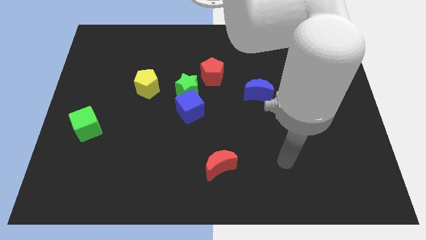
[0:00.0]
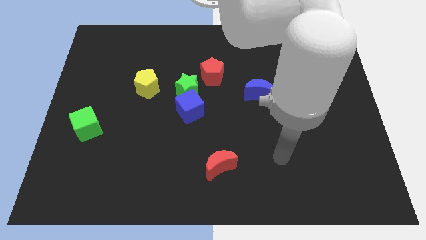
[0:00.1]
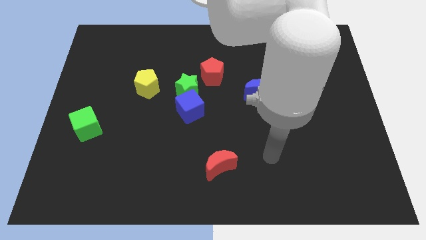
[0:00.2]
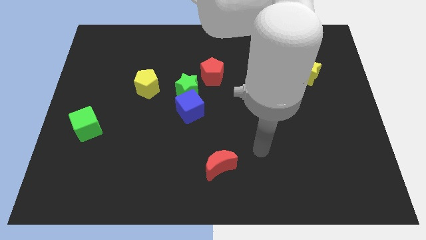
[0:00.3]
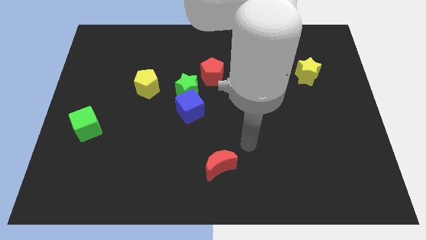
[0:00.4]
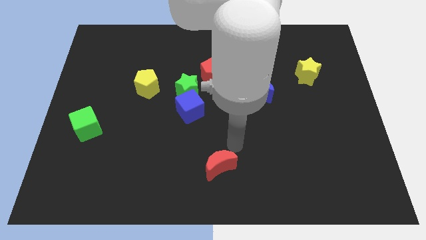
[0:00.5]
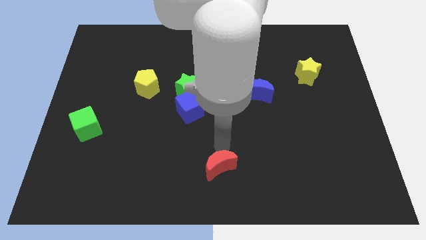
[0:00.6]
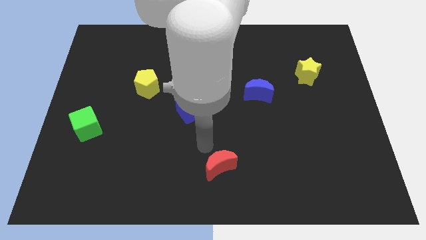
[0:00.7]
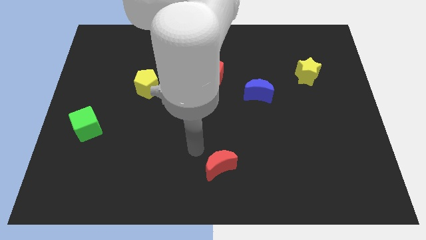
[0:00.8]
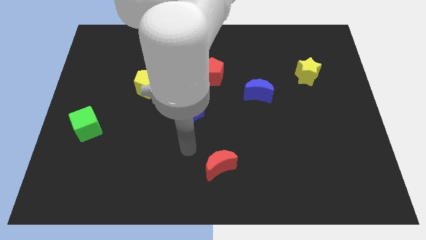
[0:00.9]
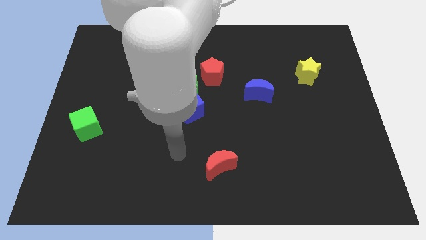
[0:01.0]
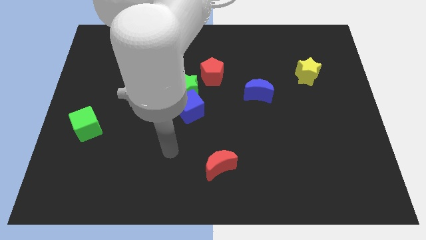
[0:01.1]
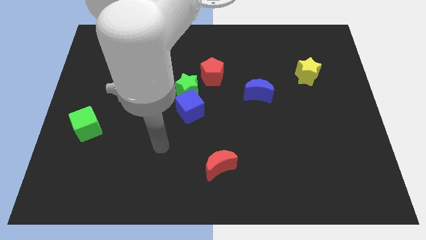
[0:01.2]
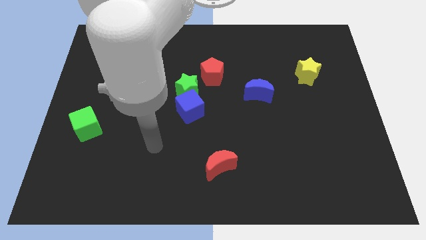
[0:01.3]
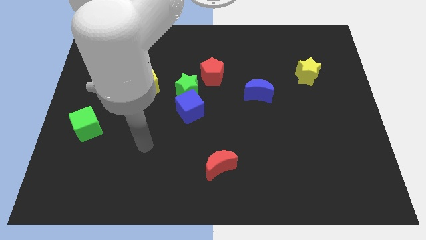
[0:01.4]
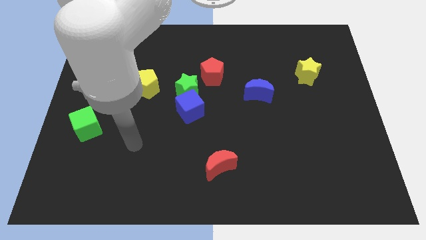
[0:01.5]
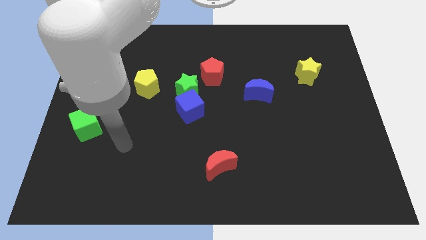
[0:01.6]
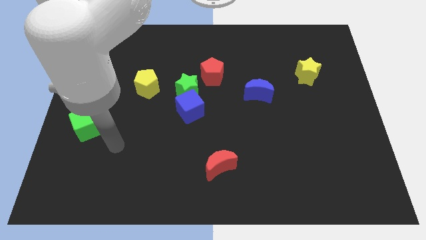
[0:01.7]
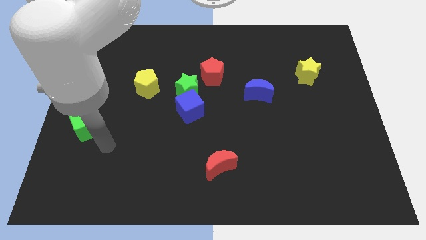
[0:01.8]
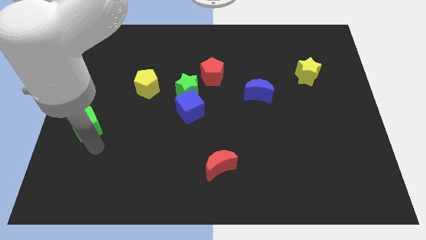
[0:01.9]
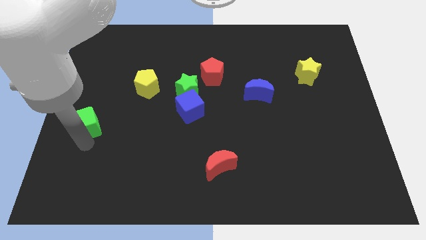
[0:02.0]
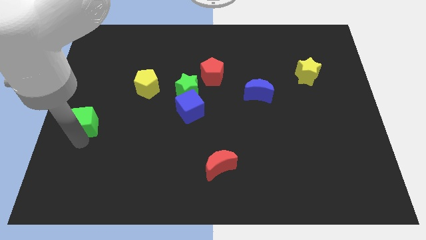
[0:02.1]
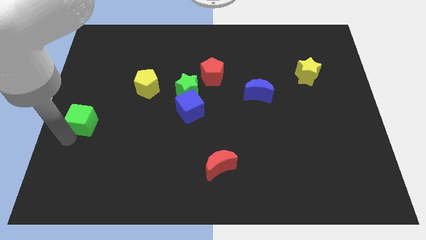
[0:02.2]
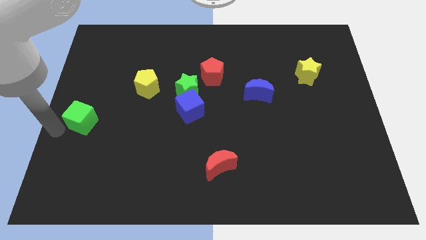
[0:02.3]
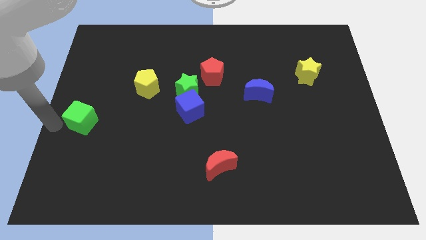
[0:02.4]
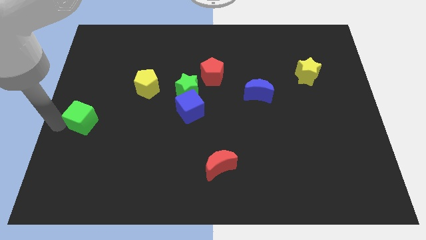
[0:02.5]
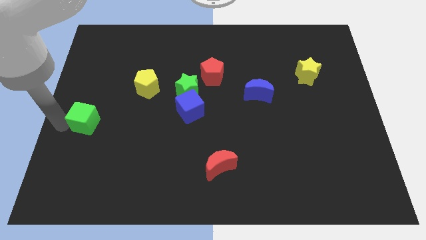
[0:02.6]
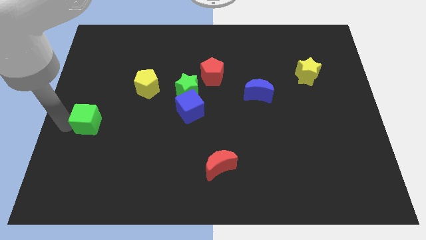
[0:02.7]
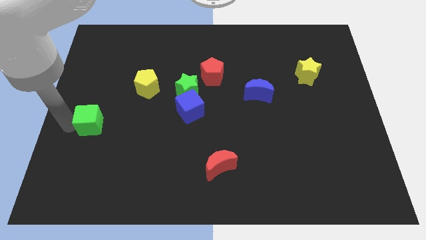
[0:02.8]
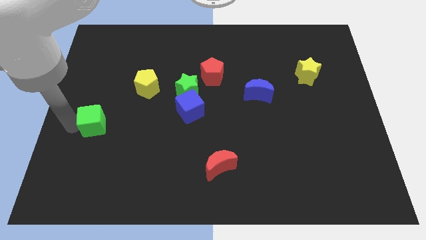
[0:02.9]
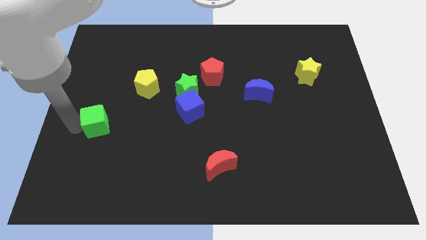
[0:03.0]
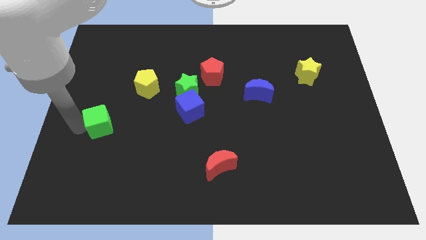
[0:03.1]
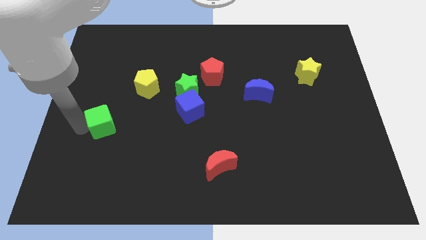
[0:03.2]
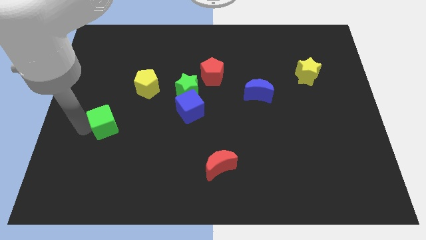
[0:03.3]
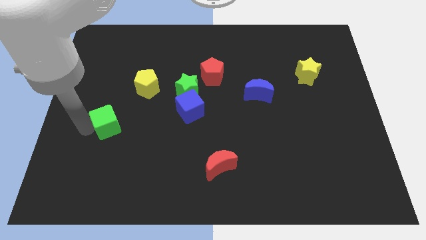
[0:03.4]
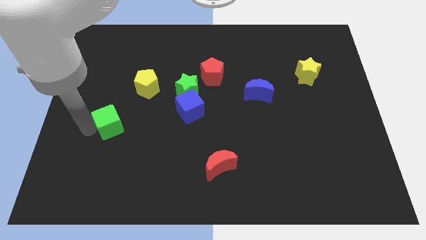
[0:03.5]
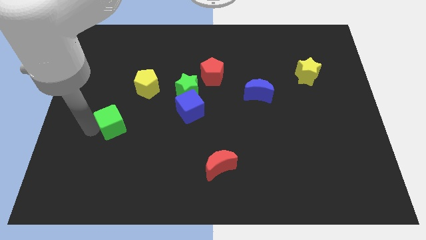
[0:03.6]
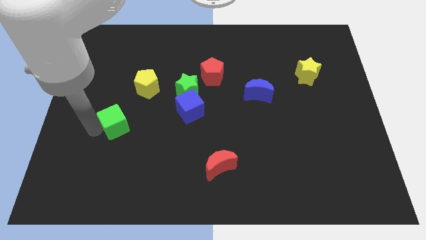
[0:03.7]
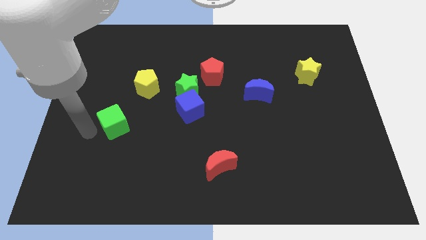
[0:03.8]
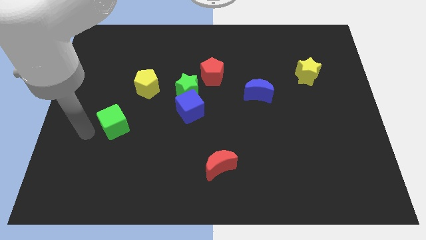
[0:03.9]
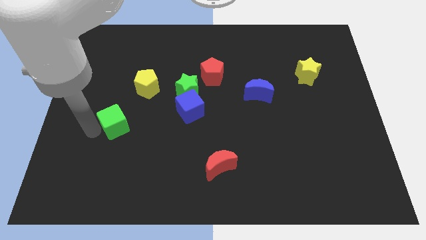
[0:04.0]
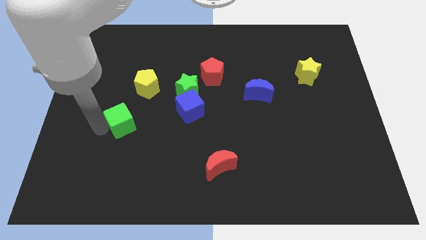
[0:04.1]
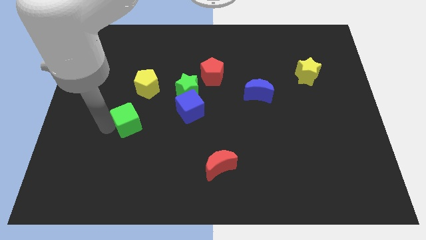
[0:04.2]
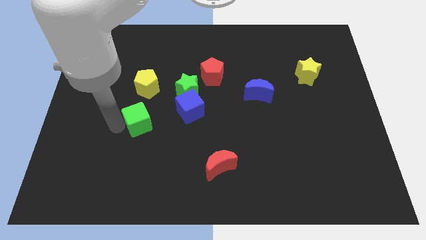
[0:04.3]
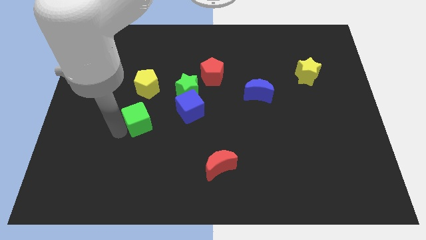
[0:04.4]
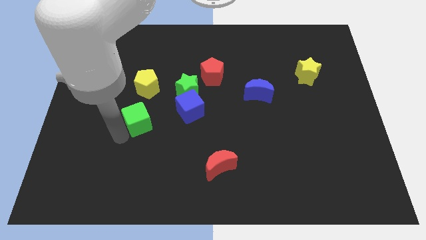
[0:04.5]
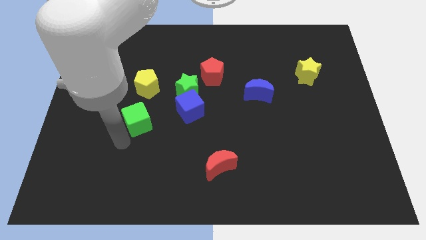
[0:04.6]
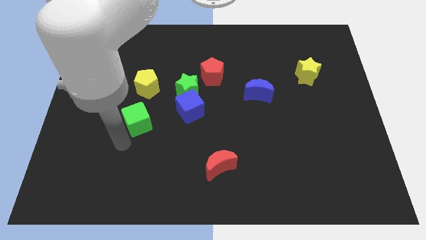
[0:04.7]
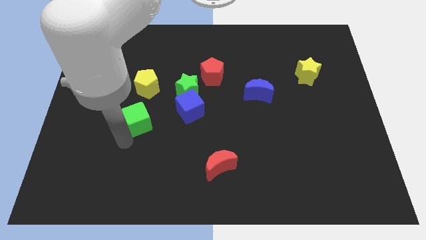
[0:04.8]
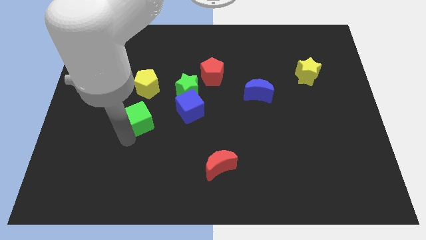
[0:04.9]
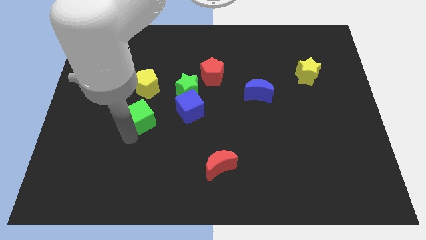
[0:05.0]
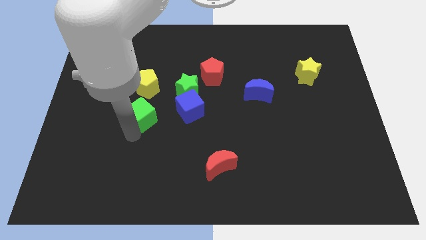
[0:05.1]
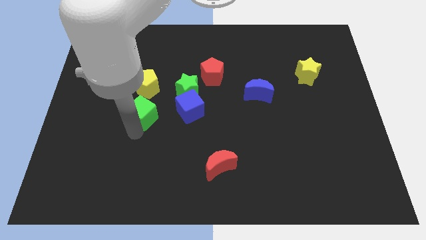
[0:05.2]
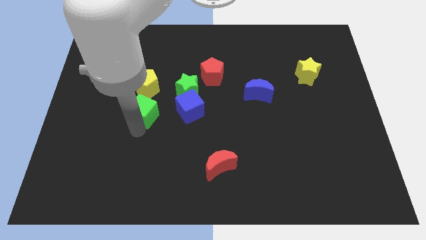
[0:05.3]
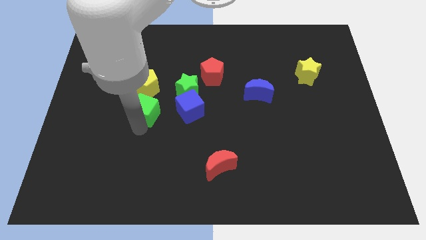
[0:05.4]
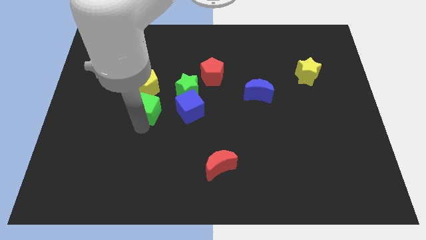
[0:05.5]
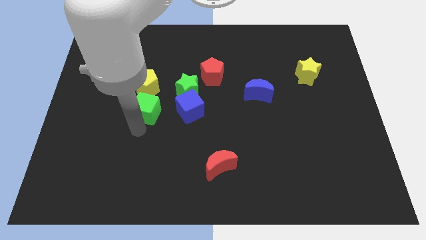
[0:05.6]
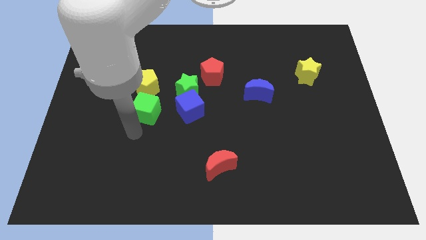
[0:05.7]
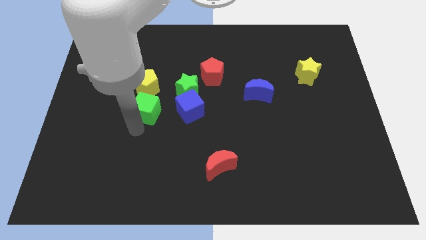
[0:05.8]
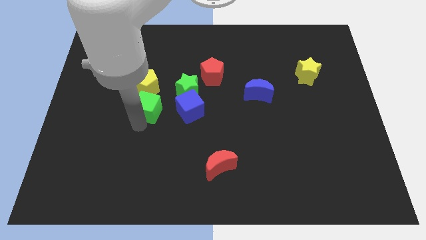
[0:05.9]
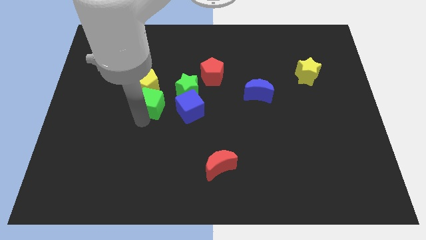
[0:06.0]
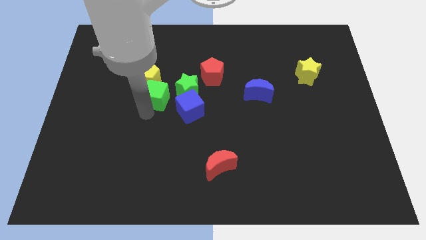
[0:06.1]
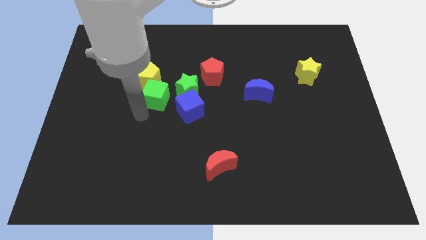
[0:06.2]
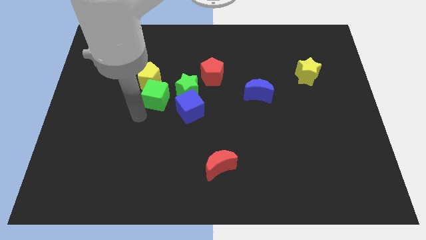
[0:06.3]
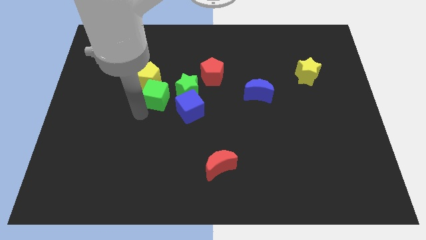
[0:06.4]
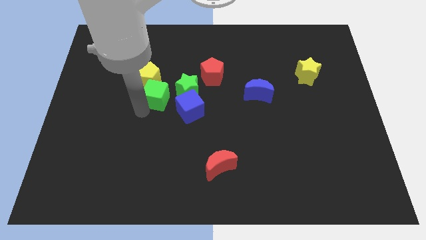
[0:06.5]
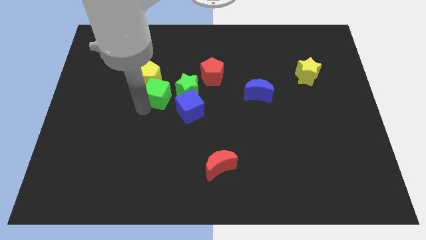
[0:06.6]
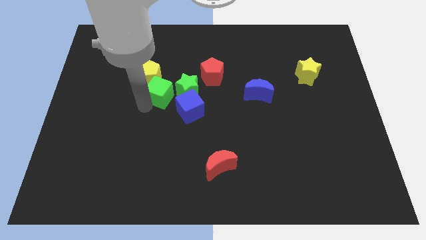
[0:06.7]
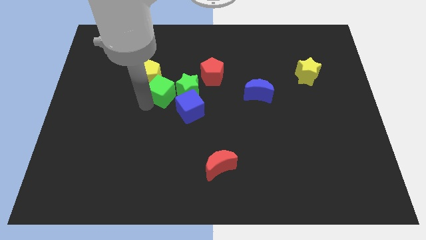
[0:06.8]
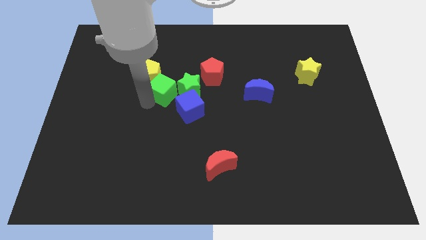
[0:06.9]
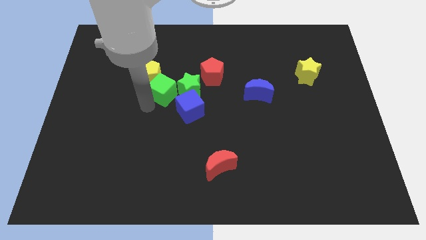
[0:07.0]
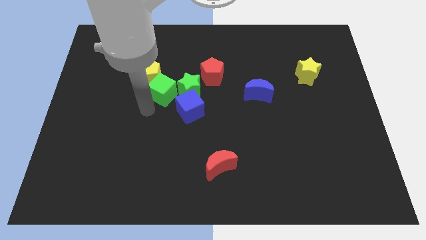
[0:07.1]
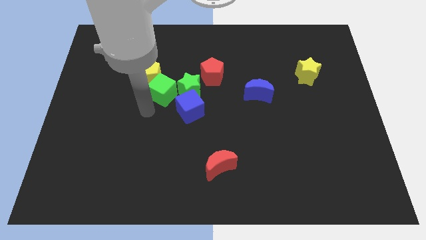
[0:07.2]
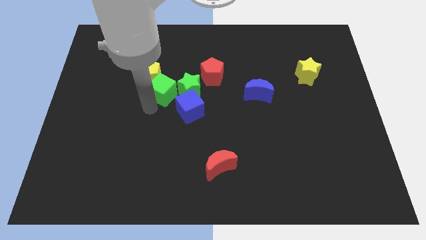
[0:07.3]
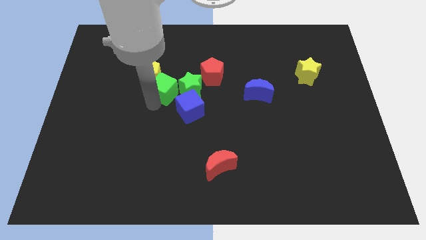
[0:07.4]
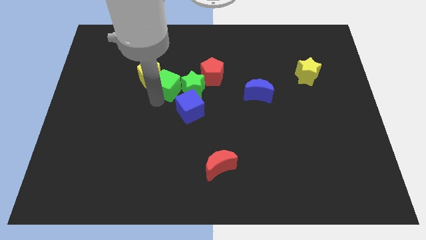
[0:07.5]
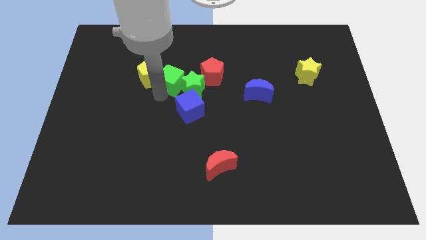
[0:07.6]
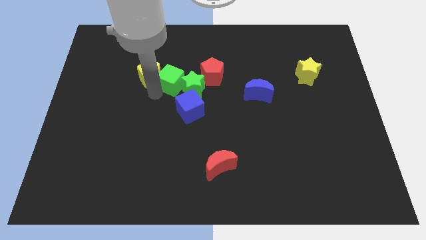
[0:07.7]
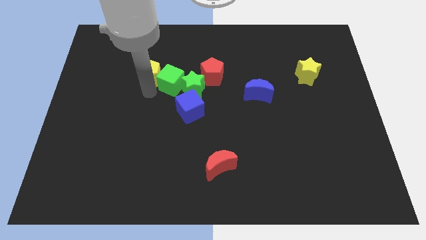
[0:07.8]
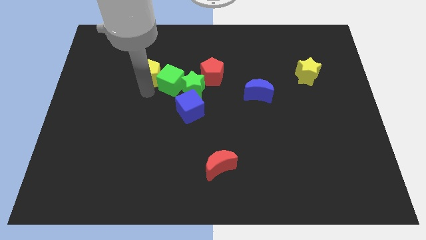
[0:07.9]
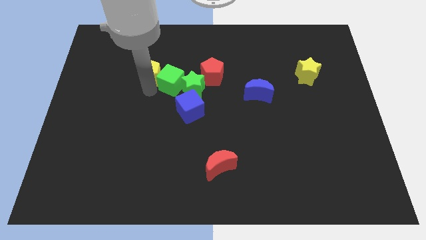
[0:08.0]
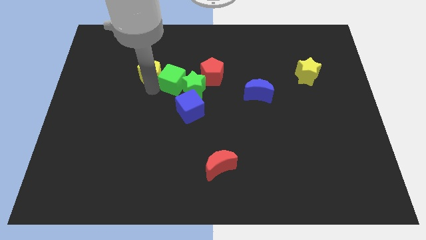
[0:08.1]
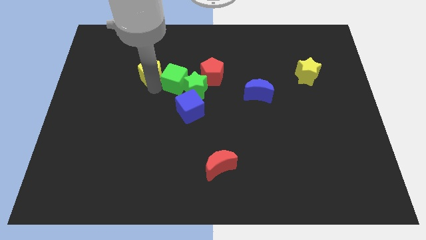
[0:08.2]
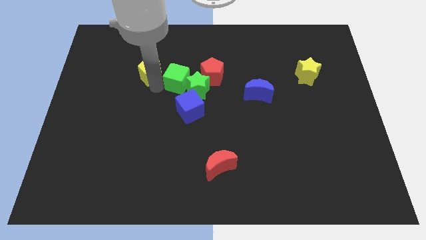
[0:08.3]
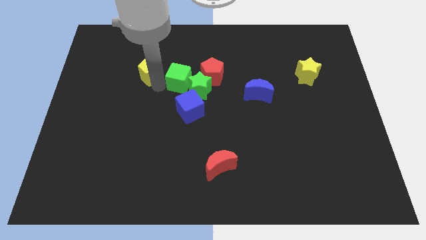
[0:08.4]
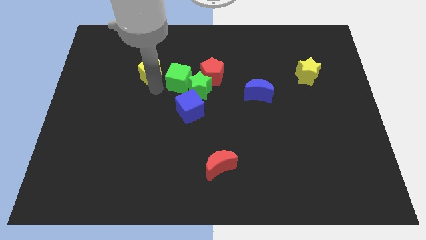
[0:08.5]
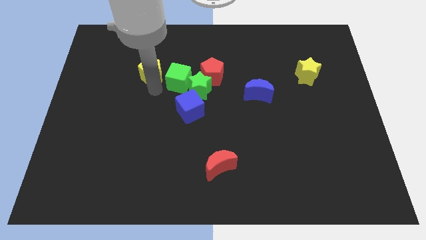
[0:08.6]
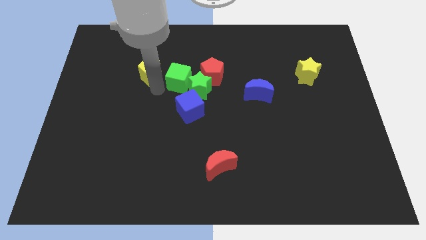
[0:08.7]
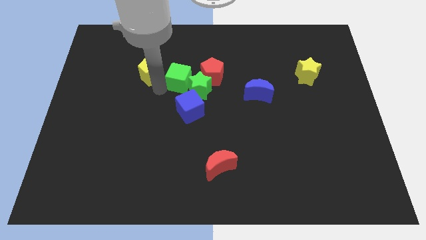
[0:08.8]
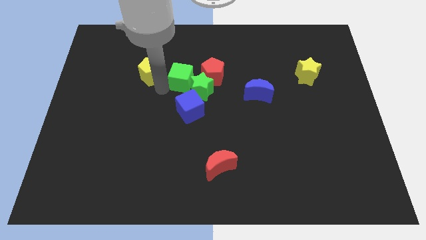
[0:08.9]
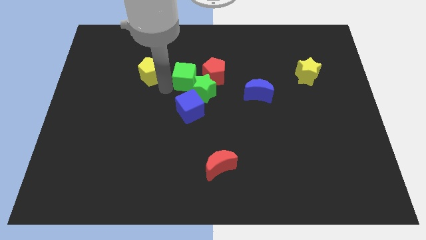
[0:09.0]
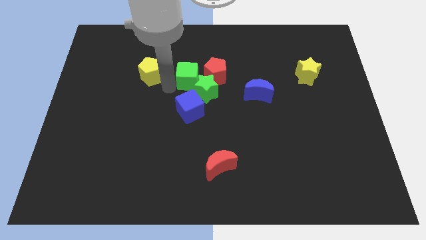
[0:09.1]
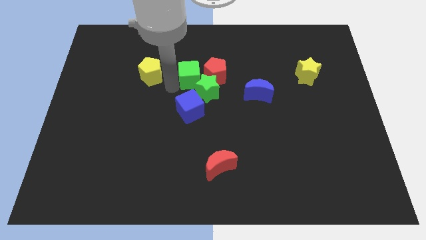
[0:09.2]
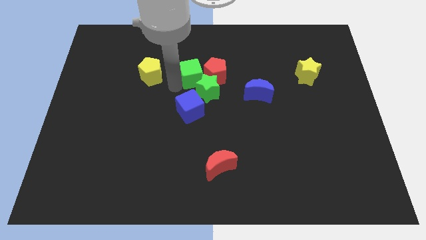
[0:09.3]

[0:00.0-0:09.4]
put the green cube close to the red pentagon
